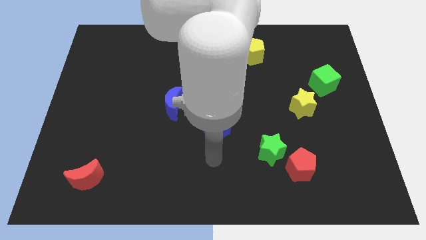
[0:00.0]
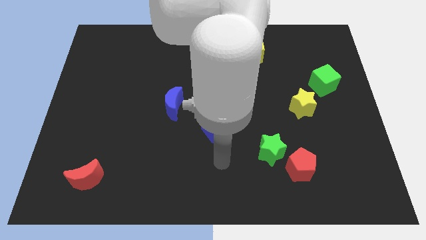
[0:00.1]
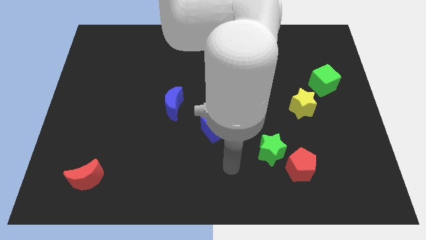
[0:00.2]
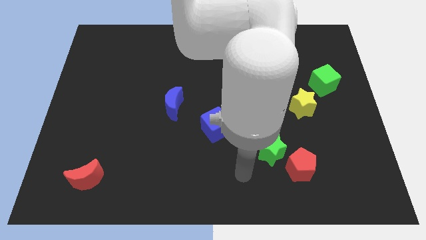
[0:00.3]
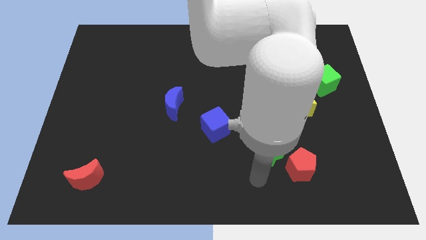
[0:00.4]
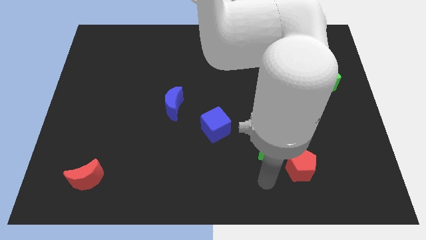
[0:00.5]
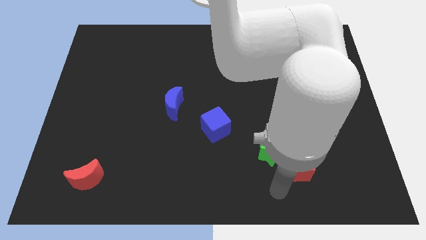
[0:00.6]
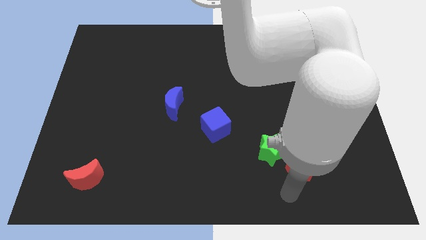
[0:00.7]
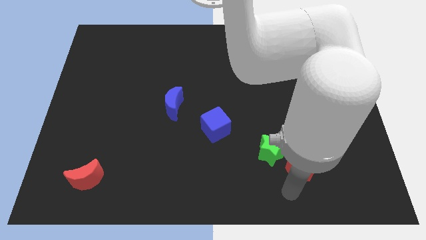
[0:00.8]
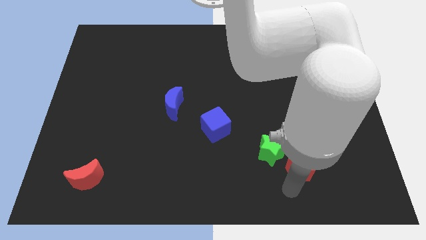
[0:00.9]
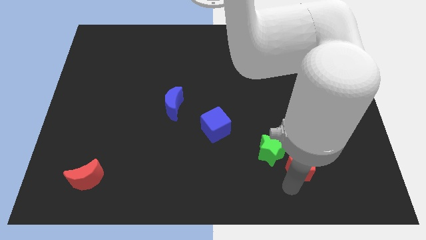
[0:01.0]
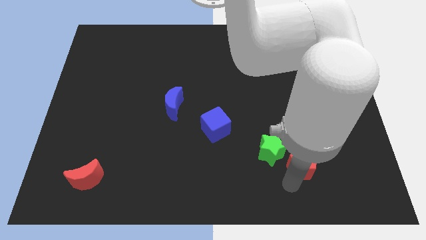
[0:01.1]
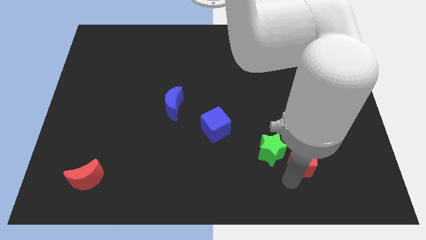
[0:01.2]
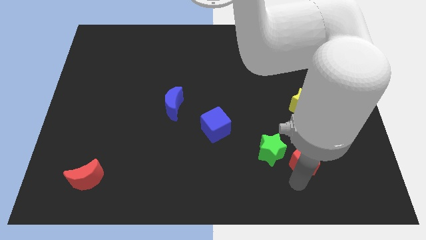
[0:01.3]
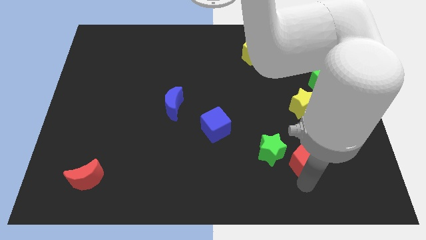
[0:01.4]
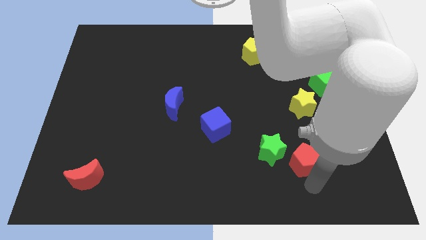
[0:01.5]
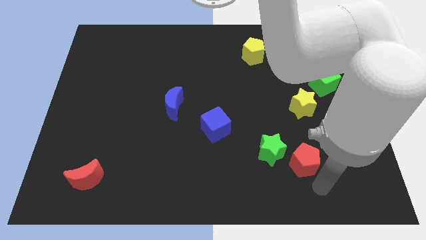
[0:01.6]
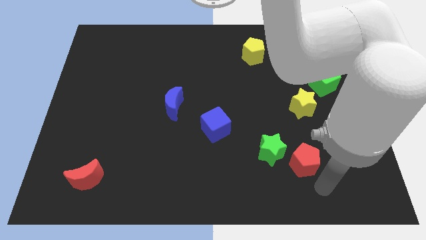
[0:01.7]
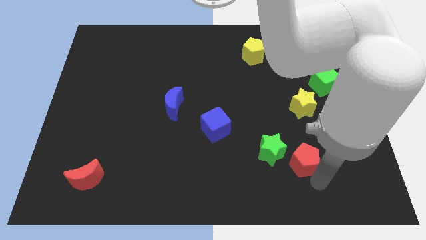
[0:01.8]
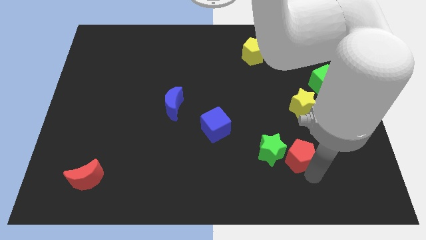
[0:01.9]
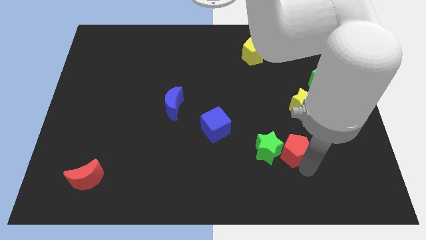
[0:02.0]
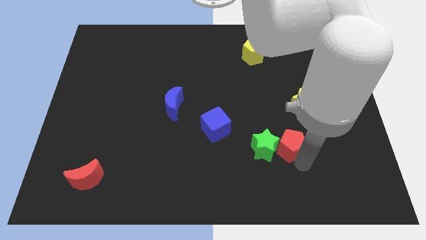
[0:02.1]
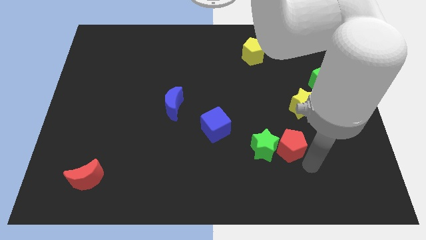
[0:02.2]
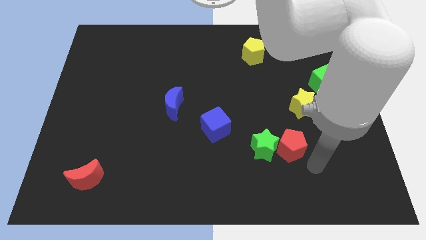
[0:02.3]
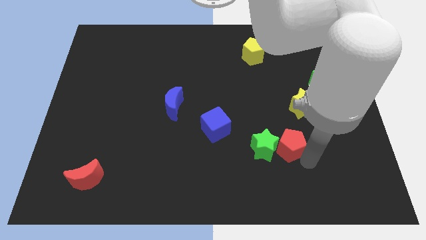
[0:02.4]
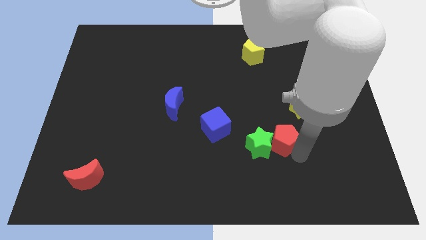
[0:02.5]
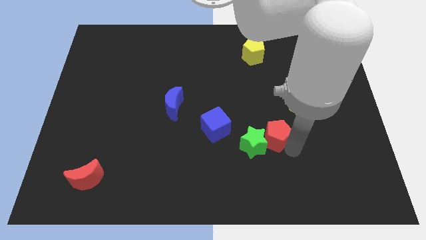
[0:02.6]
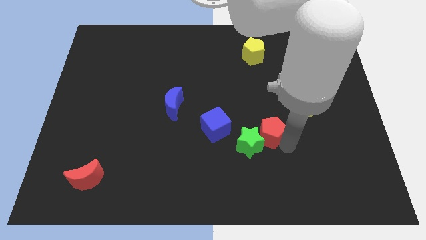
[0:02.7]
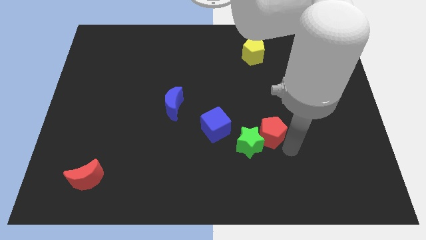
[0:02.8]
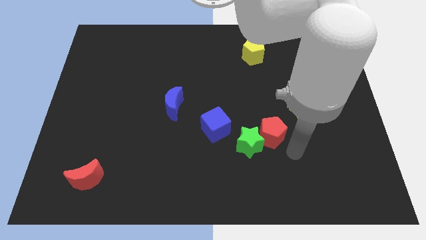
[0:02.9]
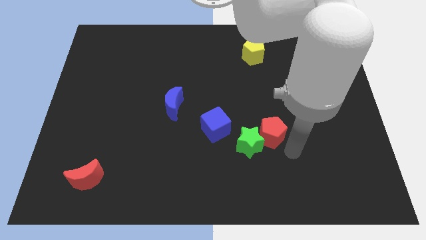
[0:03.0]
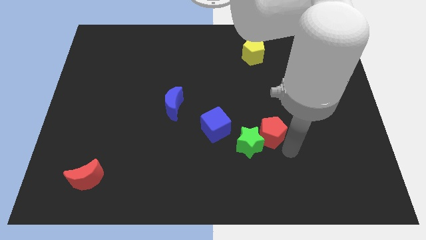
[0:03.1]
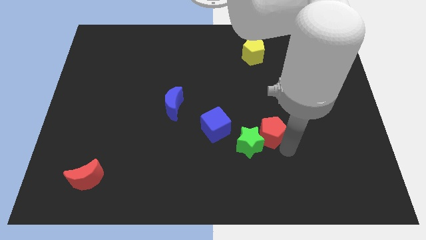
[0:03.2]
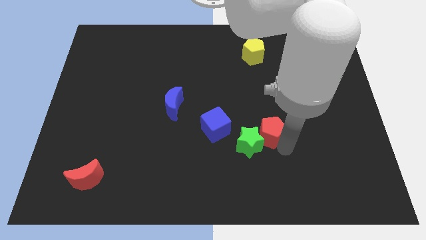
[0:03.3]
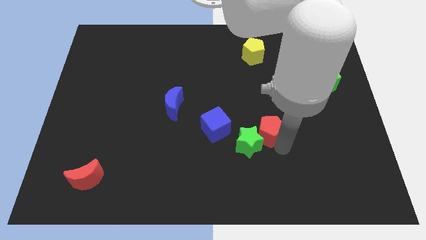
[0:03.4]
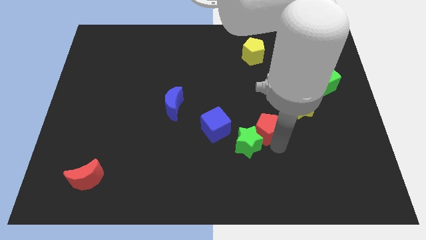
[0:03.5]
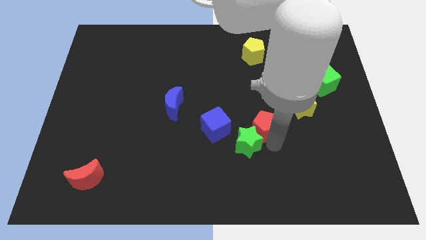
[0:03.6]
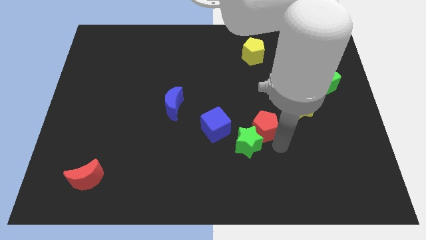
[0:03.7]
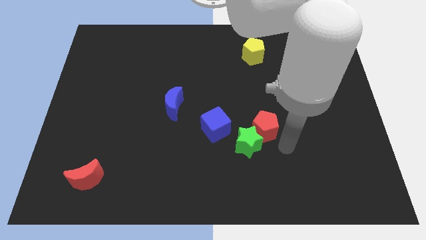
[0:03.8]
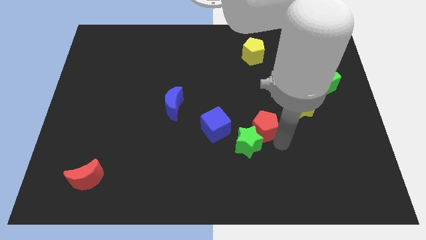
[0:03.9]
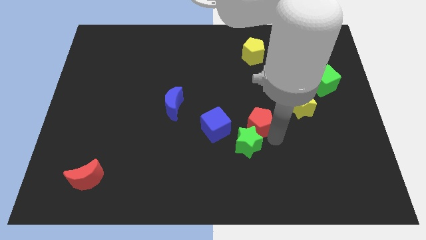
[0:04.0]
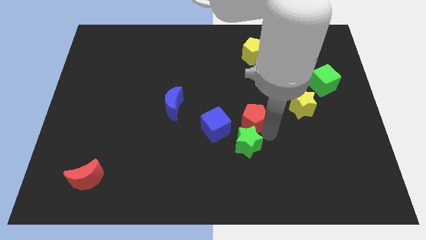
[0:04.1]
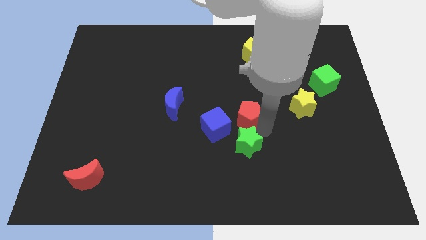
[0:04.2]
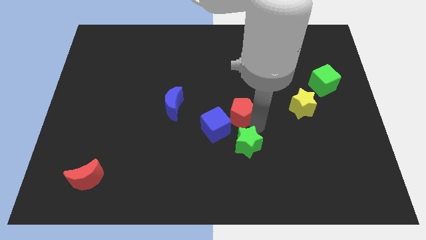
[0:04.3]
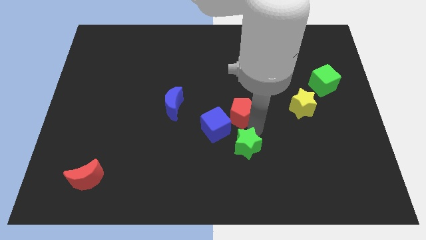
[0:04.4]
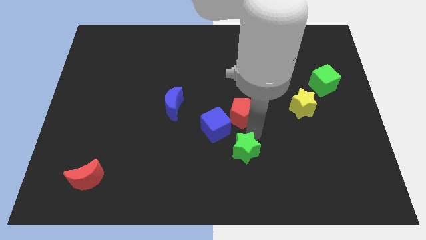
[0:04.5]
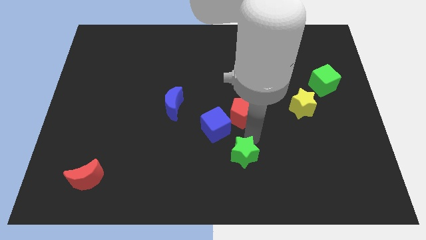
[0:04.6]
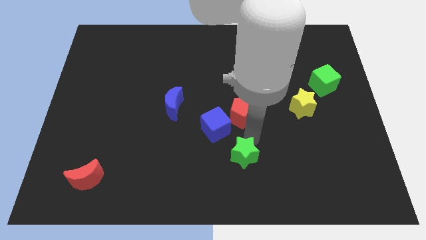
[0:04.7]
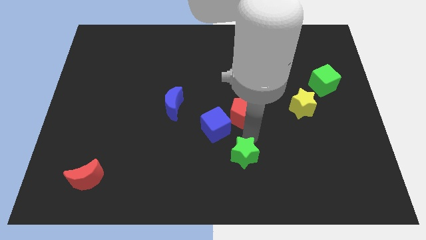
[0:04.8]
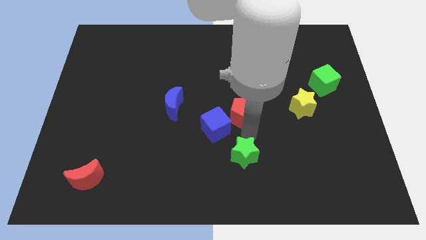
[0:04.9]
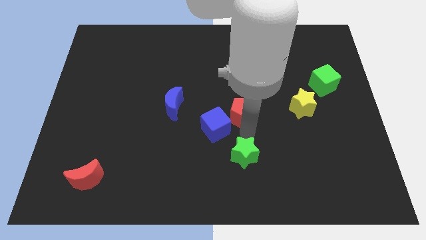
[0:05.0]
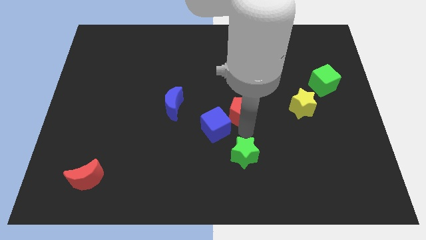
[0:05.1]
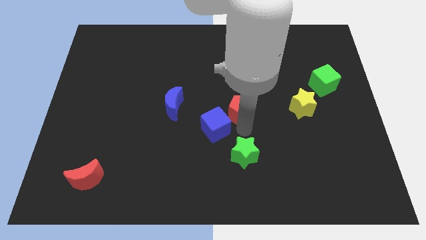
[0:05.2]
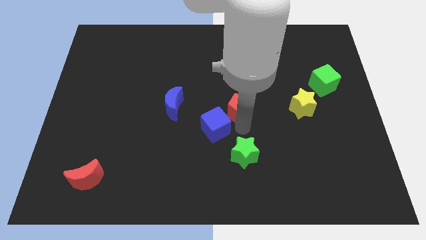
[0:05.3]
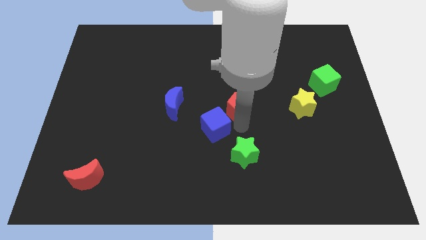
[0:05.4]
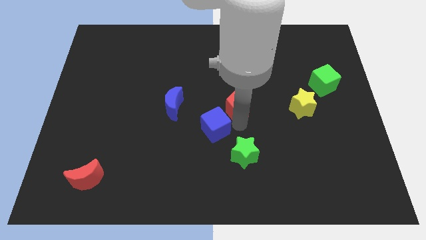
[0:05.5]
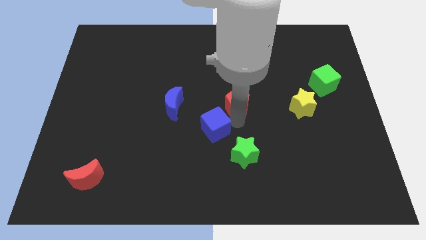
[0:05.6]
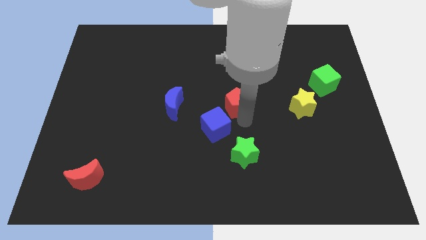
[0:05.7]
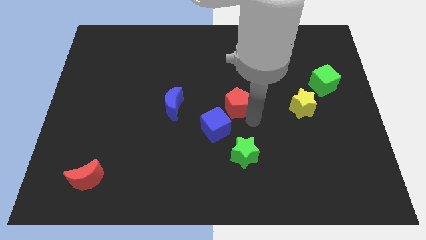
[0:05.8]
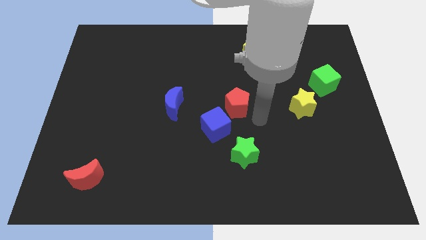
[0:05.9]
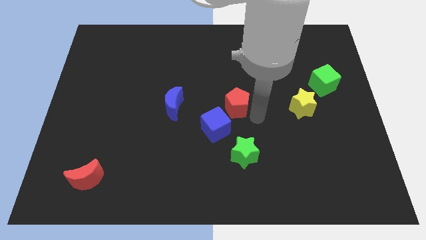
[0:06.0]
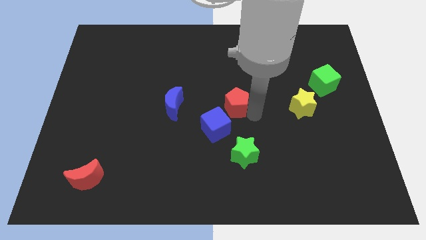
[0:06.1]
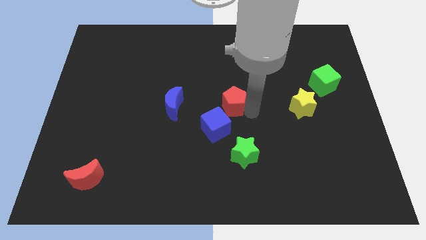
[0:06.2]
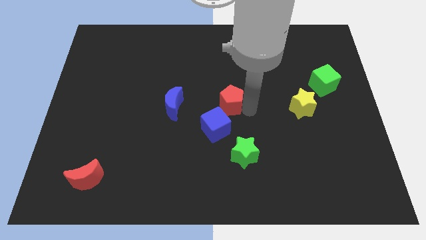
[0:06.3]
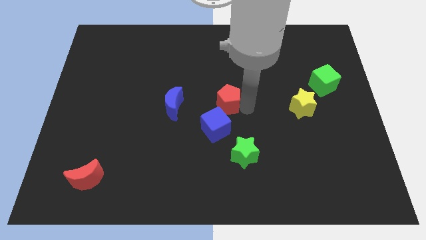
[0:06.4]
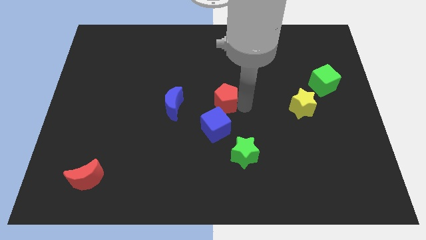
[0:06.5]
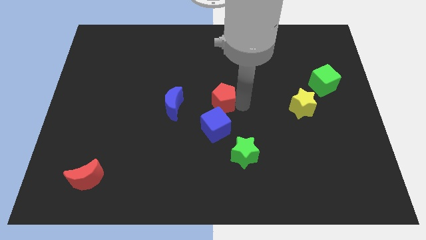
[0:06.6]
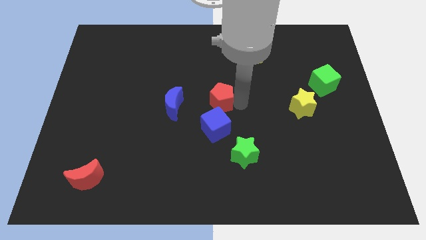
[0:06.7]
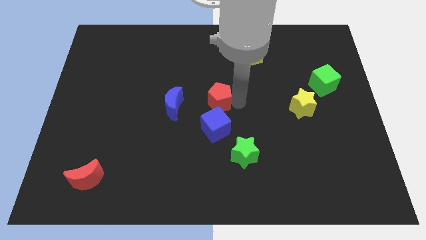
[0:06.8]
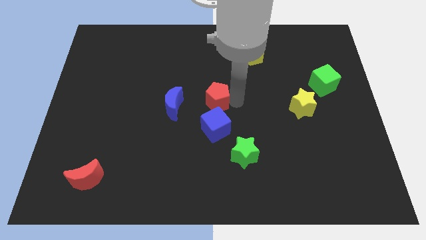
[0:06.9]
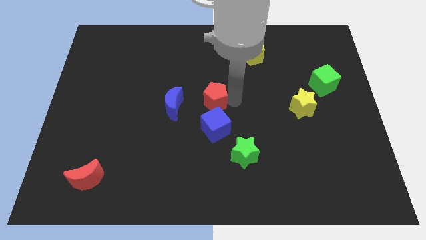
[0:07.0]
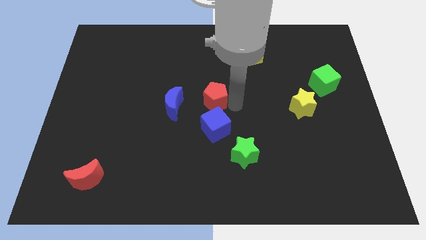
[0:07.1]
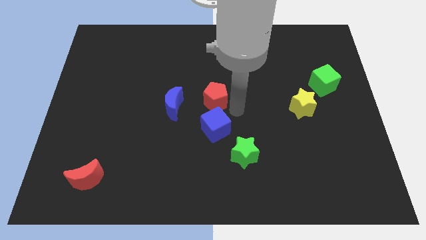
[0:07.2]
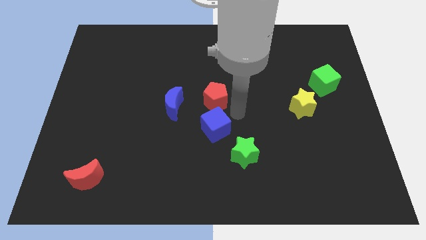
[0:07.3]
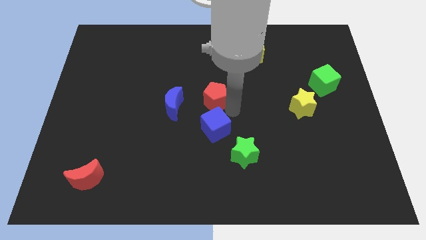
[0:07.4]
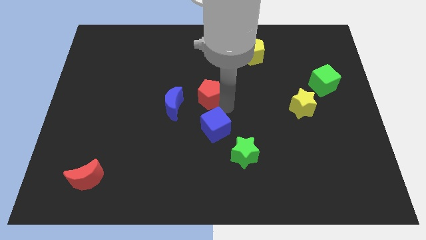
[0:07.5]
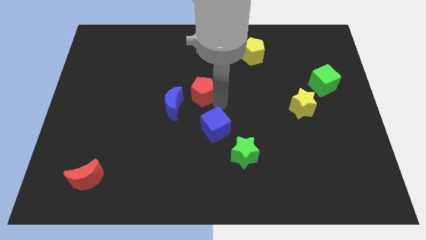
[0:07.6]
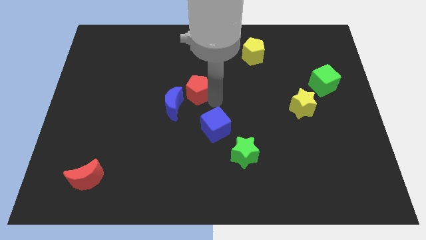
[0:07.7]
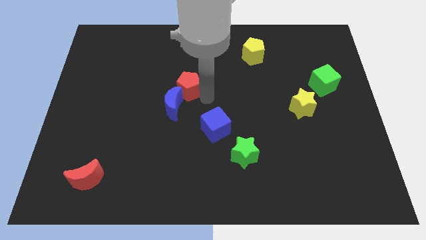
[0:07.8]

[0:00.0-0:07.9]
move the red pentagon to the top side of the blue moon

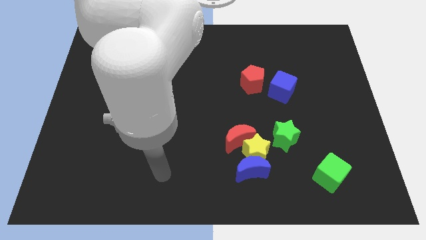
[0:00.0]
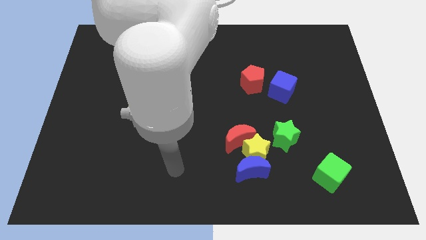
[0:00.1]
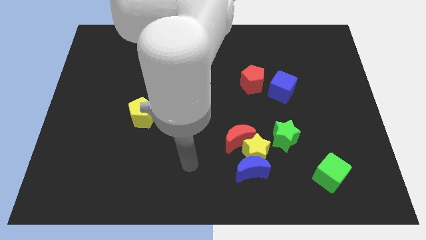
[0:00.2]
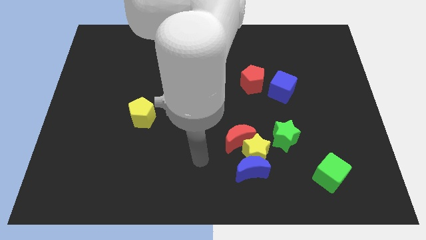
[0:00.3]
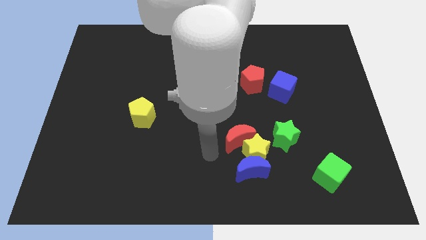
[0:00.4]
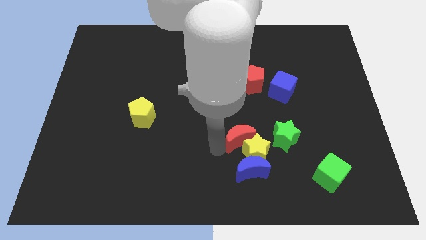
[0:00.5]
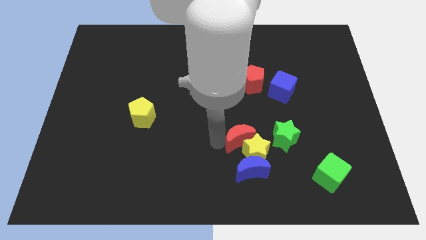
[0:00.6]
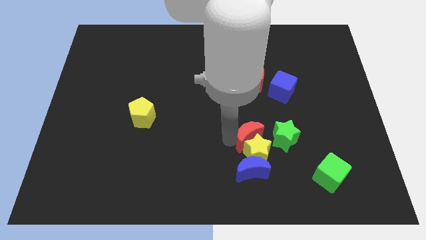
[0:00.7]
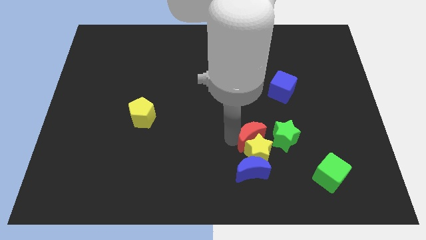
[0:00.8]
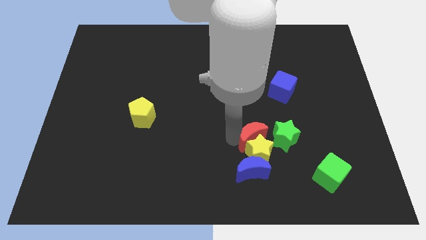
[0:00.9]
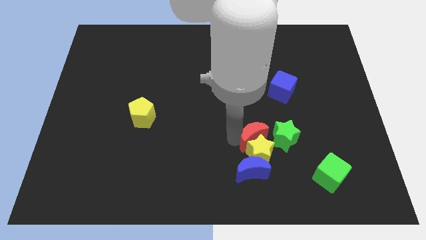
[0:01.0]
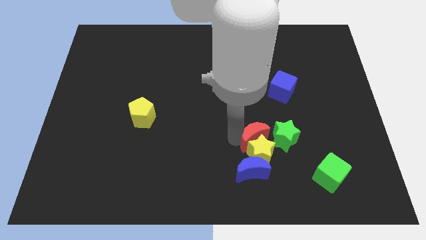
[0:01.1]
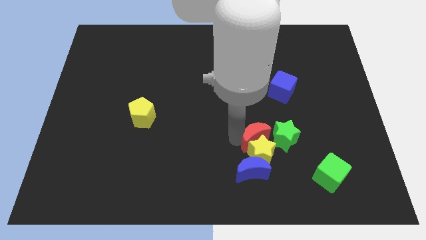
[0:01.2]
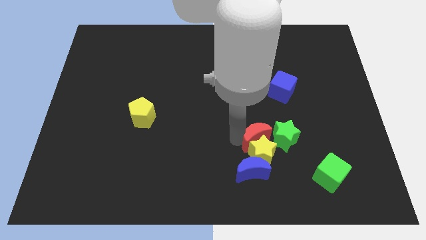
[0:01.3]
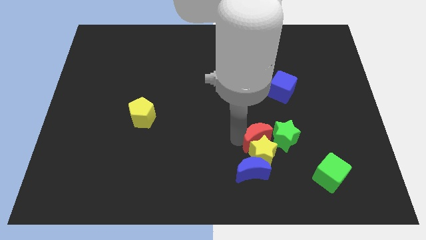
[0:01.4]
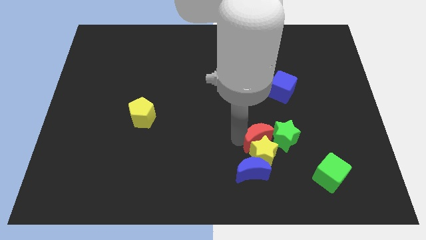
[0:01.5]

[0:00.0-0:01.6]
put the yellow star to the bottom of the green star
